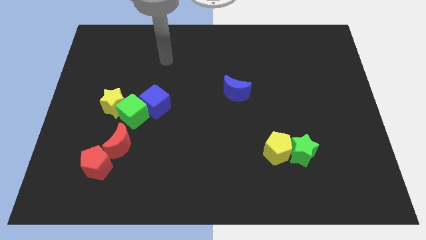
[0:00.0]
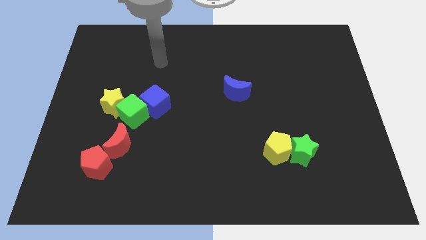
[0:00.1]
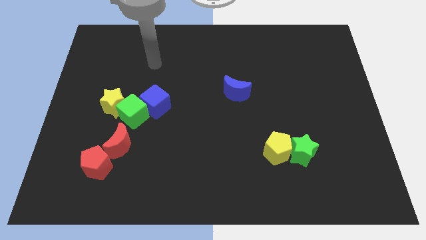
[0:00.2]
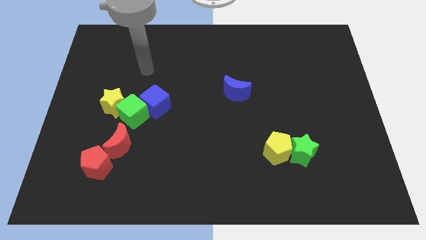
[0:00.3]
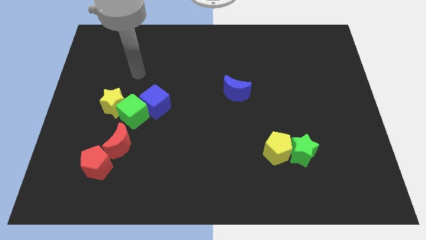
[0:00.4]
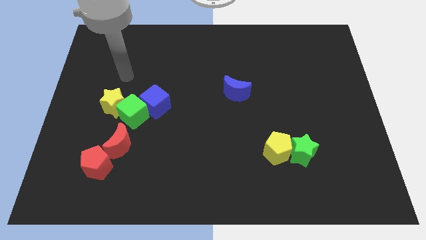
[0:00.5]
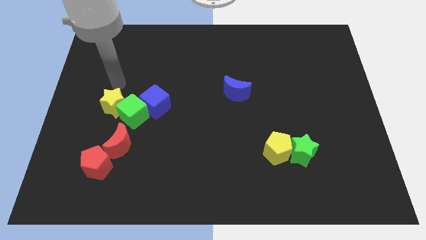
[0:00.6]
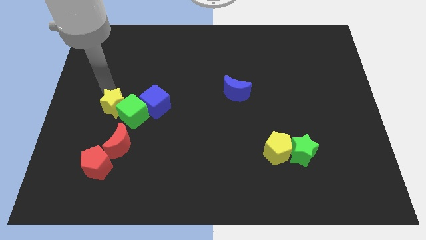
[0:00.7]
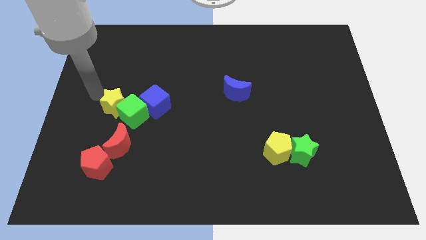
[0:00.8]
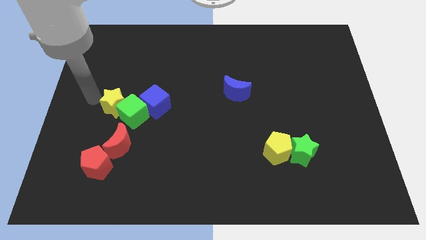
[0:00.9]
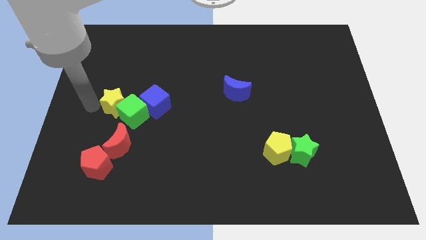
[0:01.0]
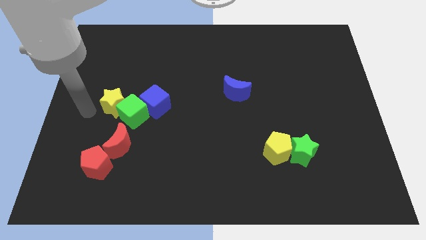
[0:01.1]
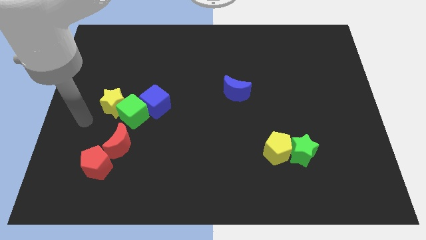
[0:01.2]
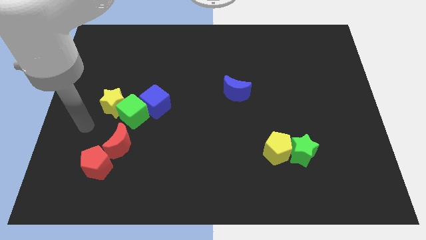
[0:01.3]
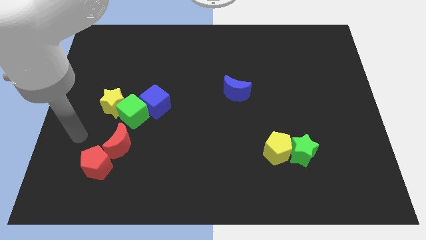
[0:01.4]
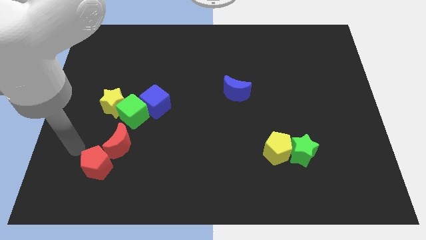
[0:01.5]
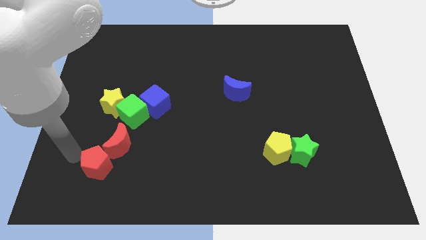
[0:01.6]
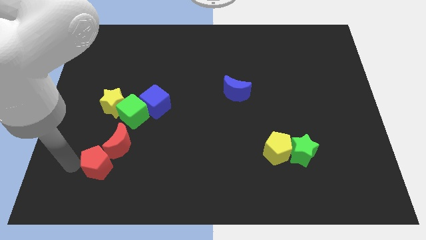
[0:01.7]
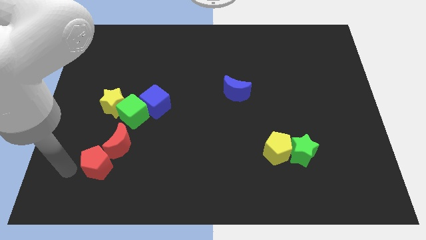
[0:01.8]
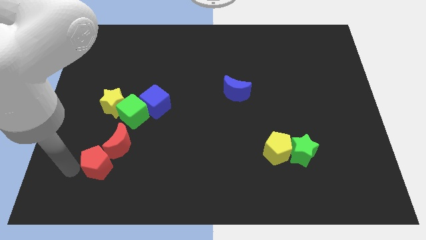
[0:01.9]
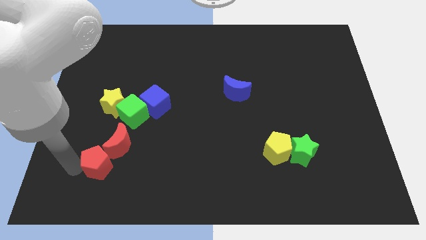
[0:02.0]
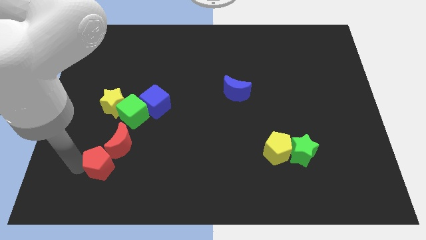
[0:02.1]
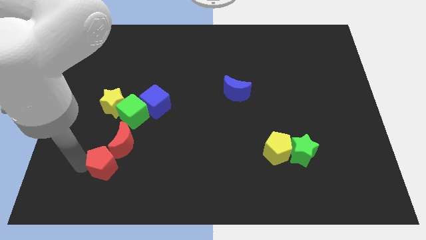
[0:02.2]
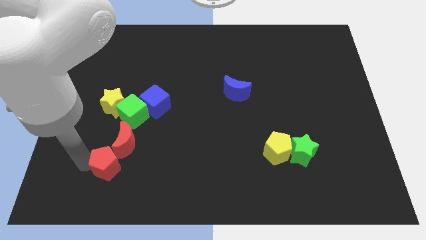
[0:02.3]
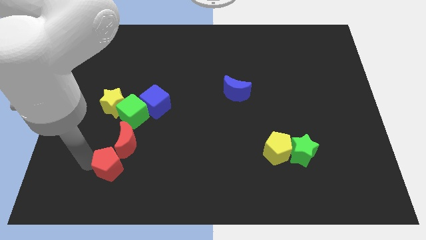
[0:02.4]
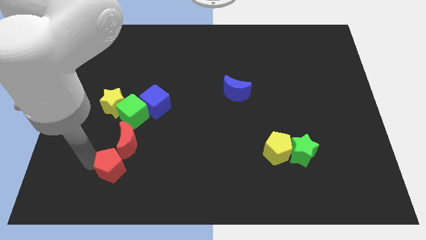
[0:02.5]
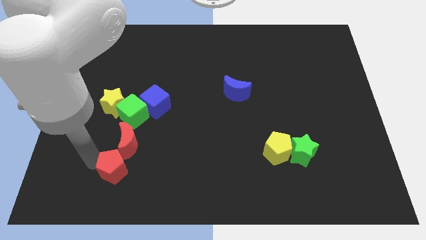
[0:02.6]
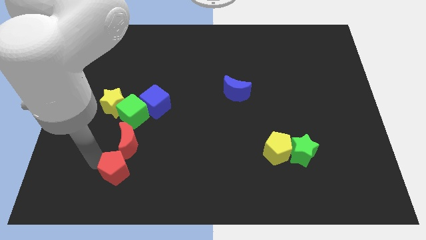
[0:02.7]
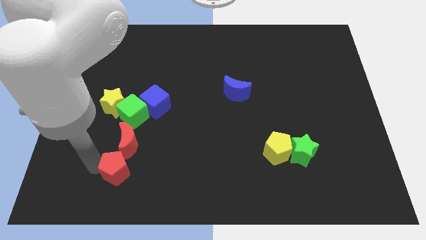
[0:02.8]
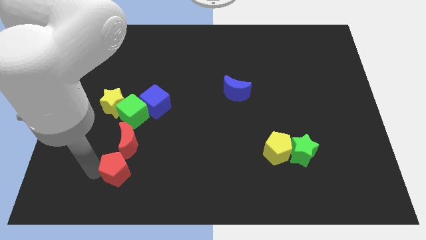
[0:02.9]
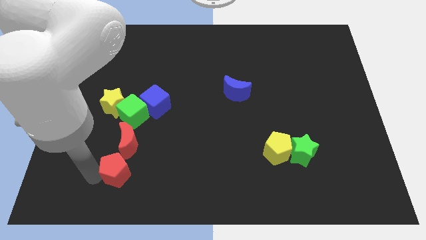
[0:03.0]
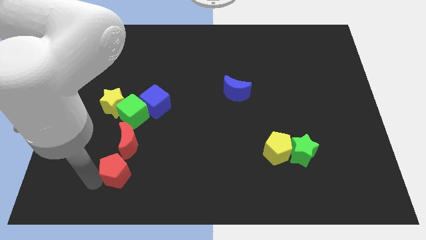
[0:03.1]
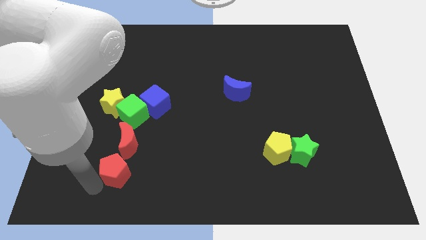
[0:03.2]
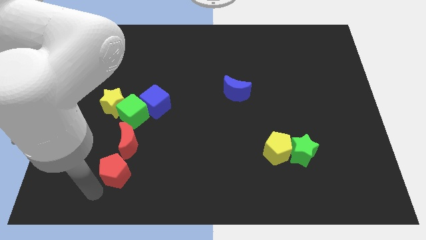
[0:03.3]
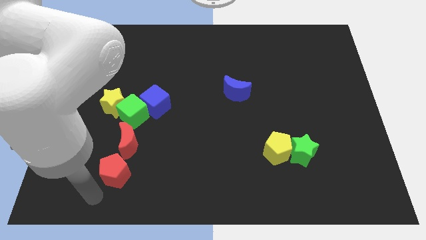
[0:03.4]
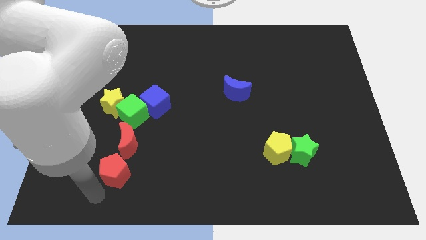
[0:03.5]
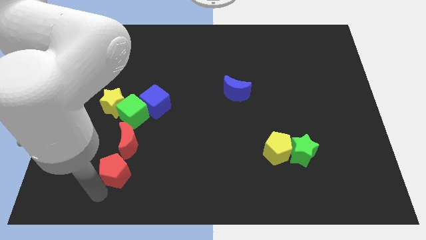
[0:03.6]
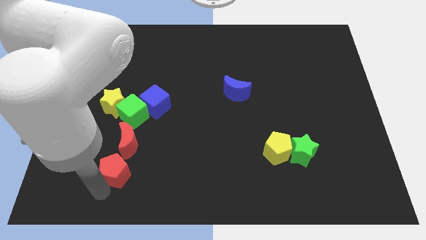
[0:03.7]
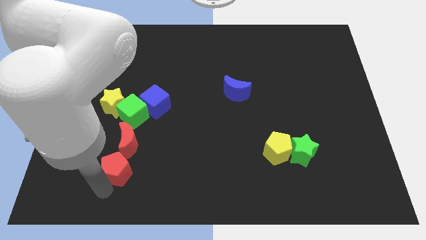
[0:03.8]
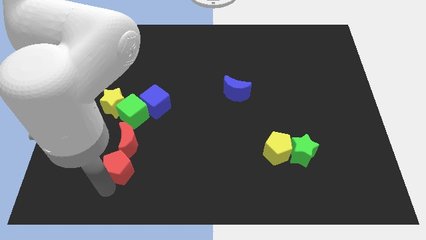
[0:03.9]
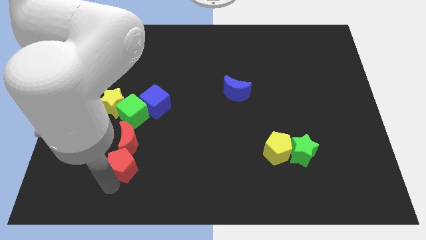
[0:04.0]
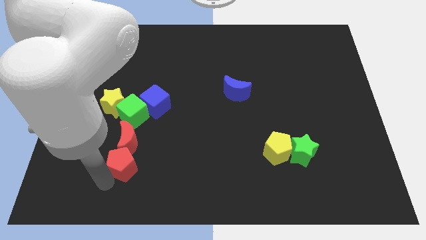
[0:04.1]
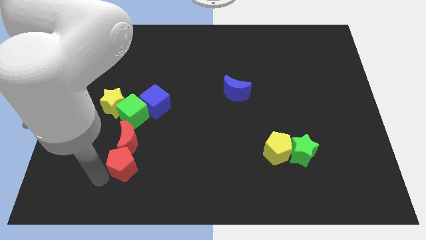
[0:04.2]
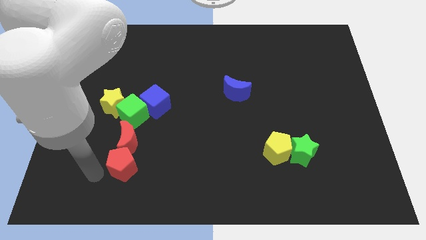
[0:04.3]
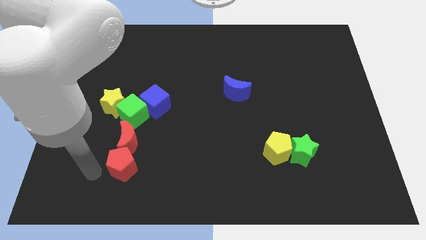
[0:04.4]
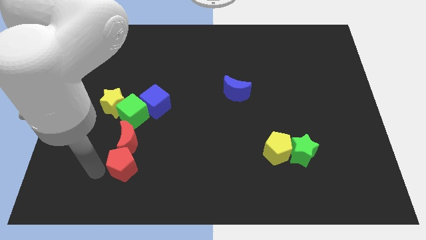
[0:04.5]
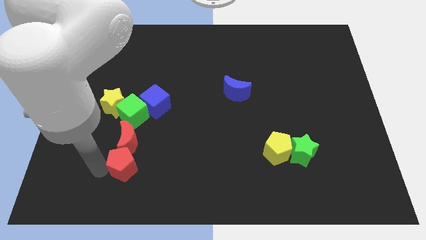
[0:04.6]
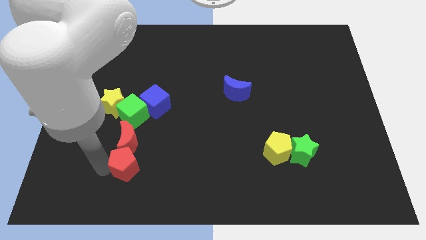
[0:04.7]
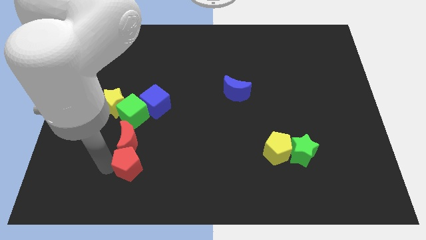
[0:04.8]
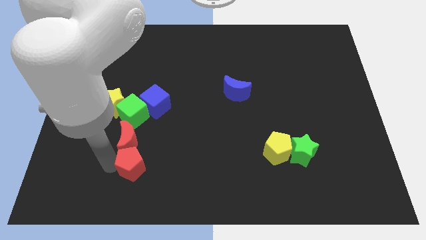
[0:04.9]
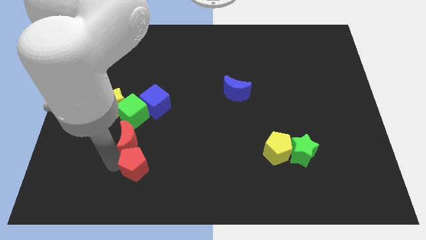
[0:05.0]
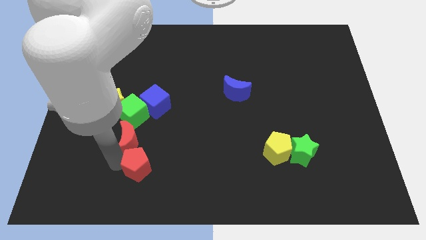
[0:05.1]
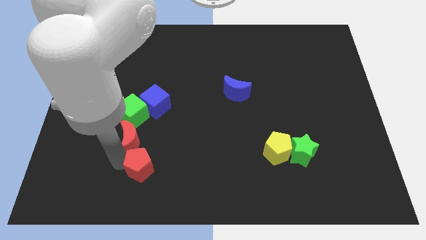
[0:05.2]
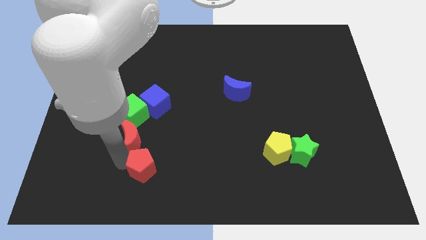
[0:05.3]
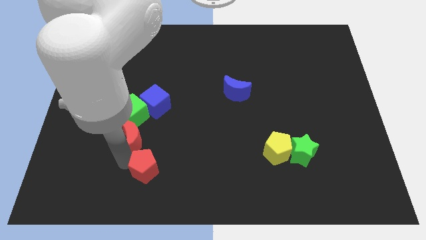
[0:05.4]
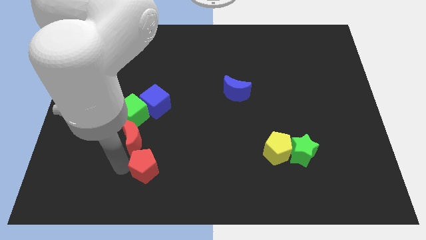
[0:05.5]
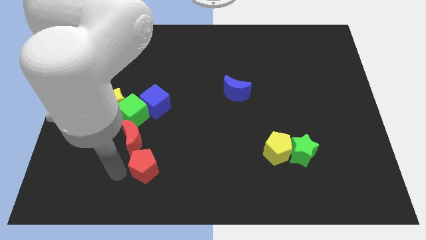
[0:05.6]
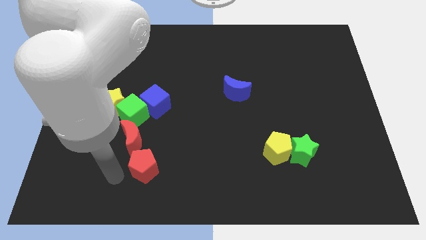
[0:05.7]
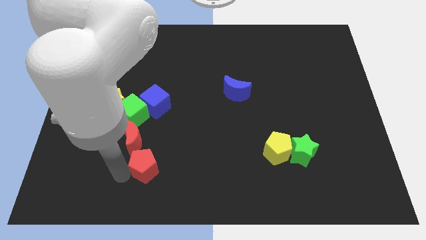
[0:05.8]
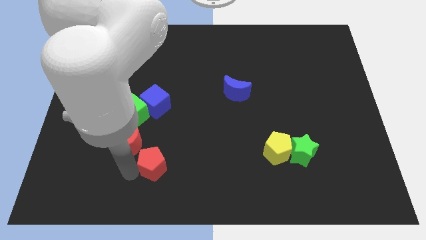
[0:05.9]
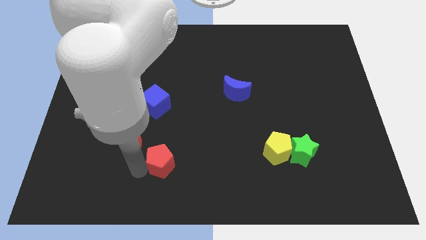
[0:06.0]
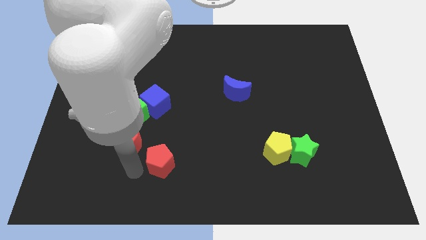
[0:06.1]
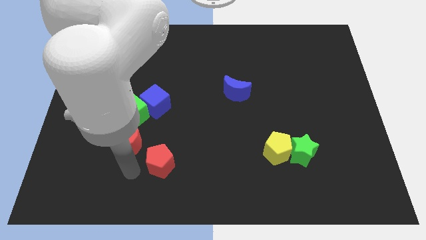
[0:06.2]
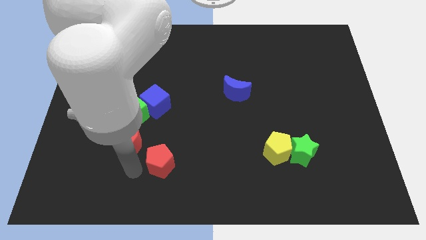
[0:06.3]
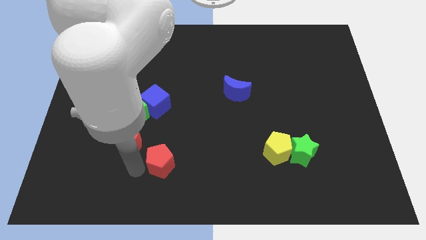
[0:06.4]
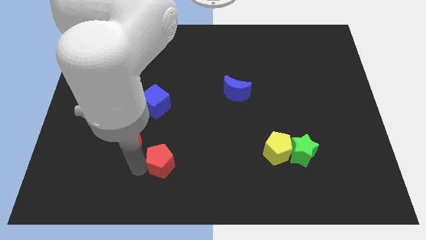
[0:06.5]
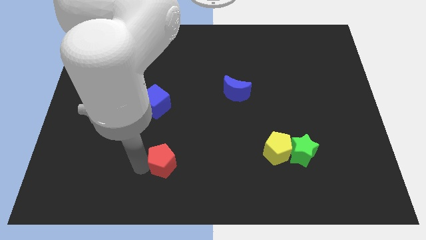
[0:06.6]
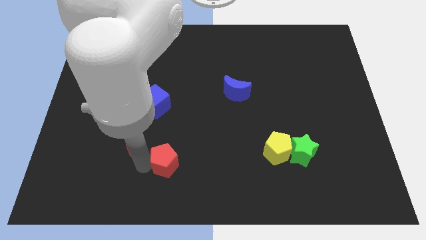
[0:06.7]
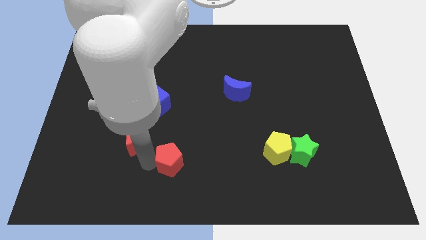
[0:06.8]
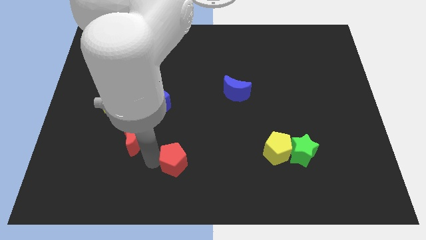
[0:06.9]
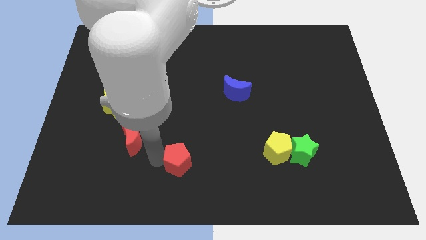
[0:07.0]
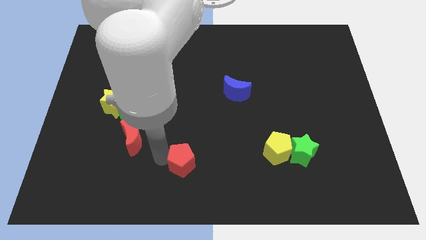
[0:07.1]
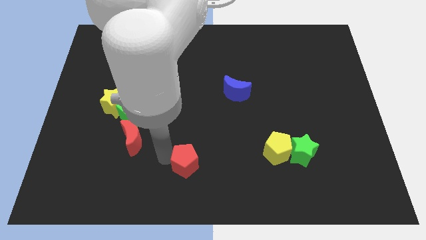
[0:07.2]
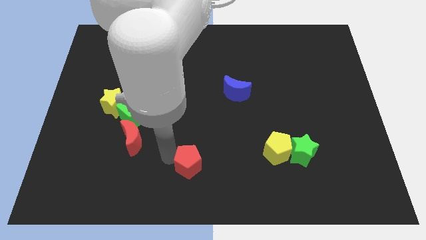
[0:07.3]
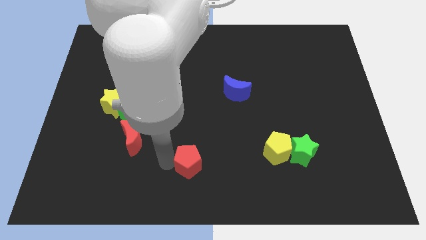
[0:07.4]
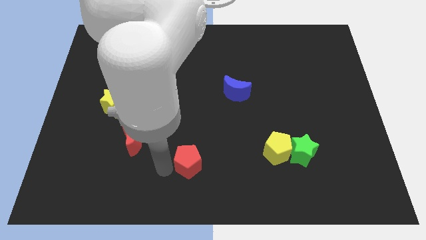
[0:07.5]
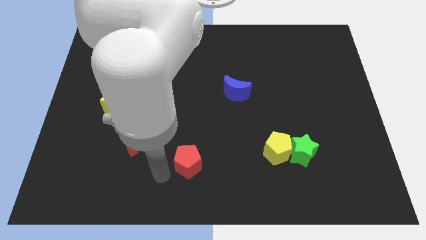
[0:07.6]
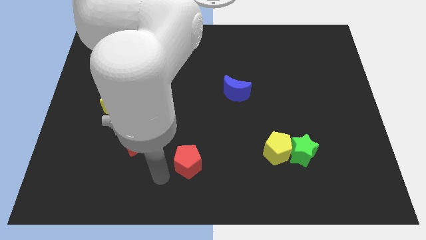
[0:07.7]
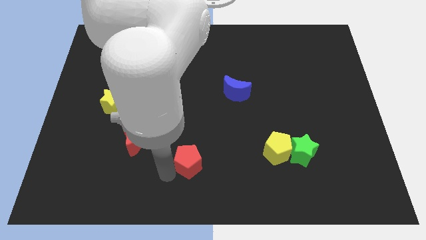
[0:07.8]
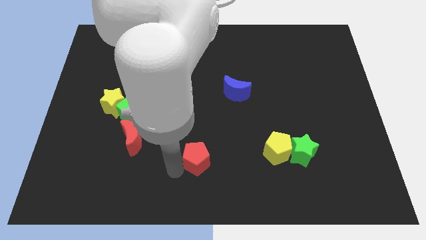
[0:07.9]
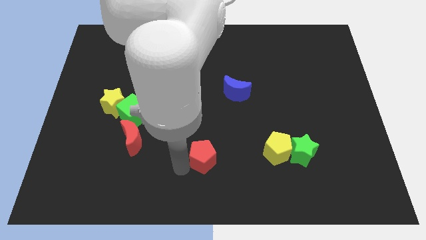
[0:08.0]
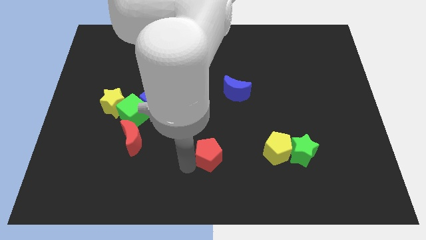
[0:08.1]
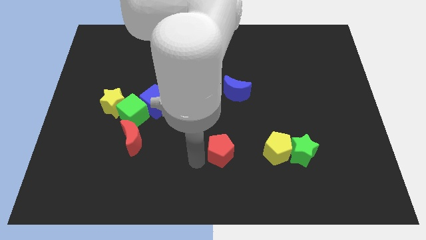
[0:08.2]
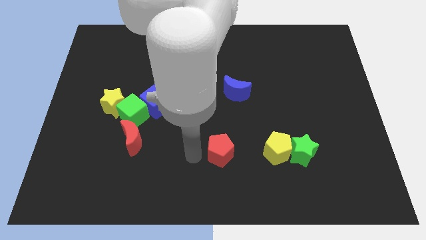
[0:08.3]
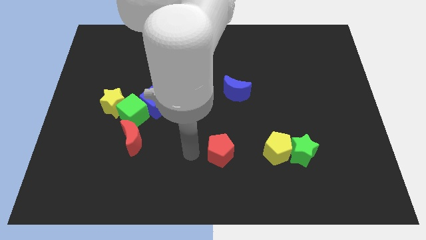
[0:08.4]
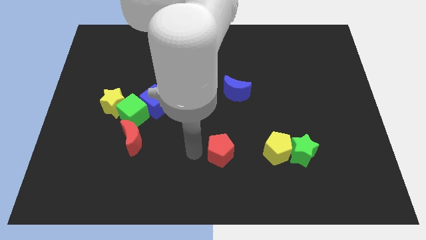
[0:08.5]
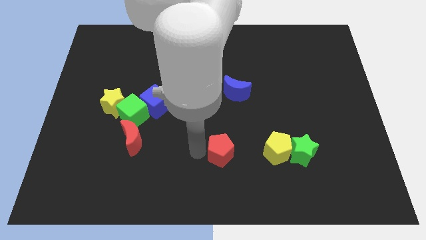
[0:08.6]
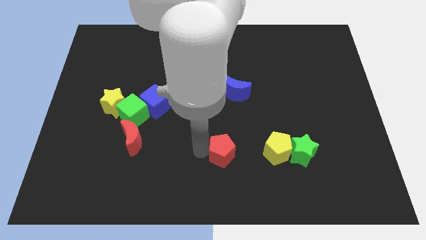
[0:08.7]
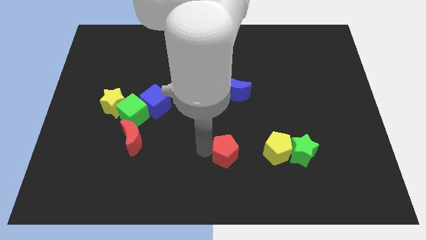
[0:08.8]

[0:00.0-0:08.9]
slide the red pentagon to the left side of the green star
